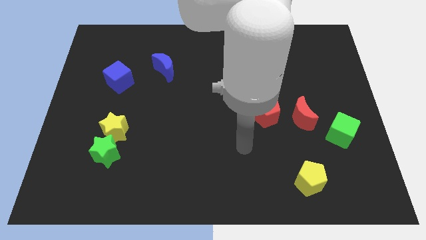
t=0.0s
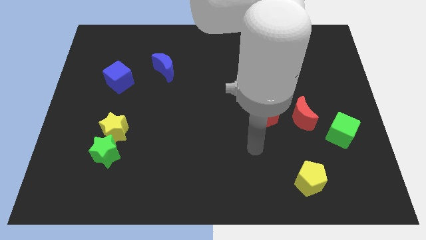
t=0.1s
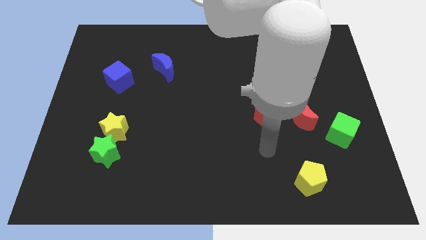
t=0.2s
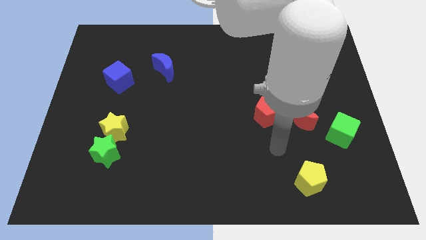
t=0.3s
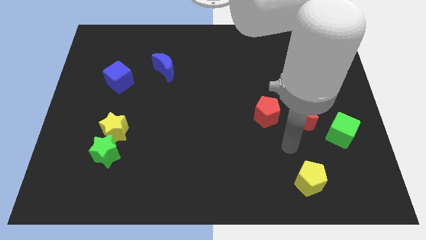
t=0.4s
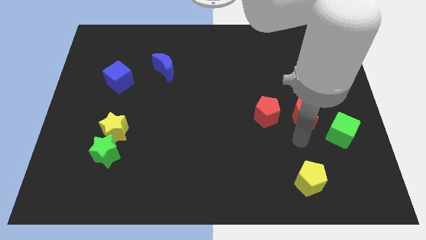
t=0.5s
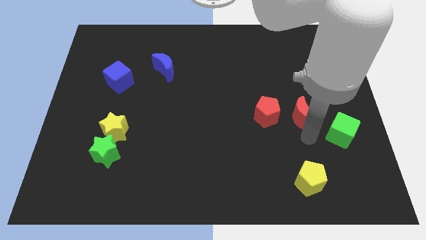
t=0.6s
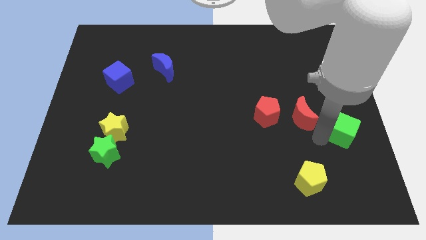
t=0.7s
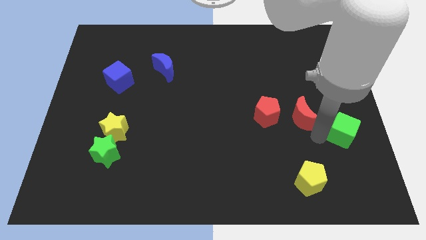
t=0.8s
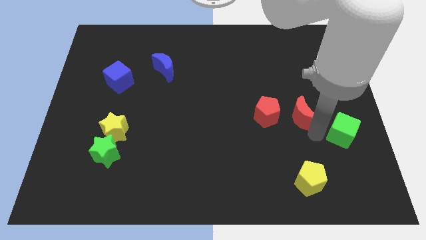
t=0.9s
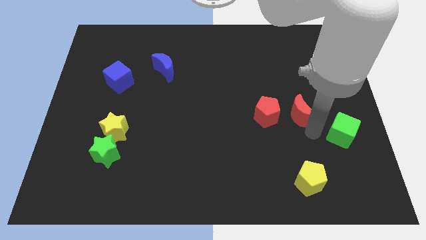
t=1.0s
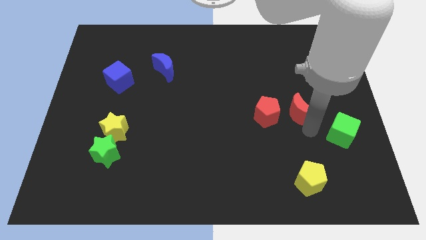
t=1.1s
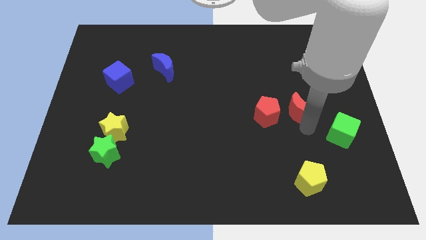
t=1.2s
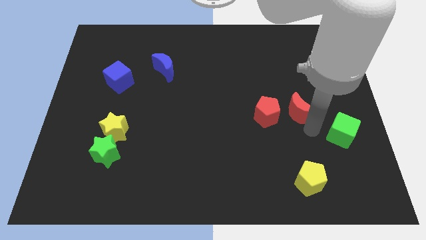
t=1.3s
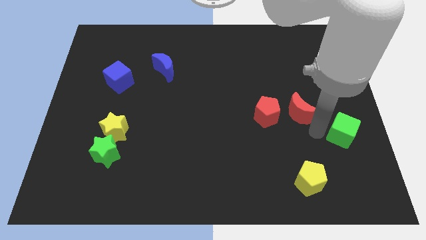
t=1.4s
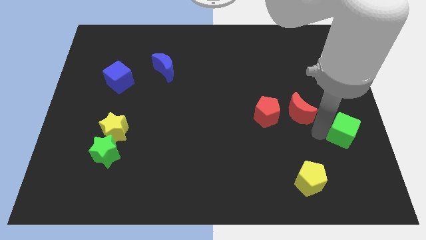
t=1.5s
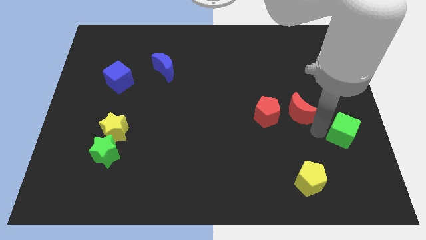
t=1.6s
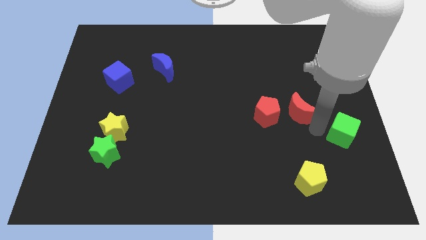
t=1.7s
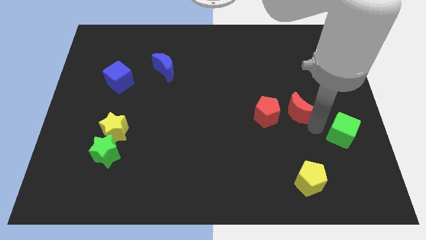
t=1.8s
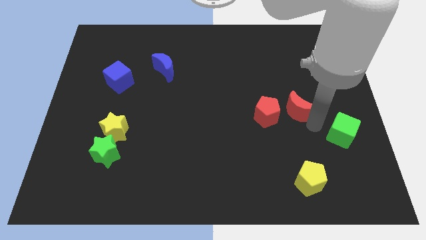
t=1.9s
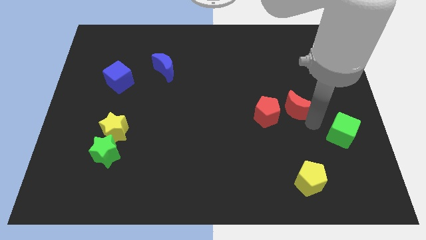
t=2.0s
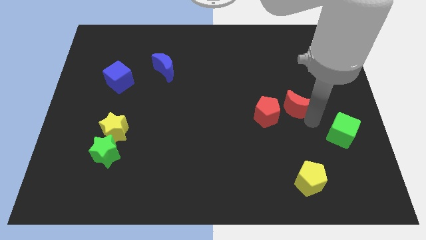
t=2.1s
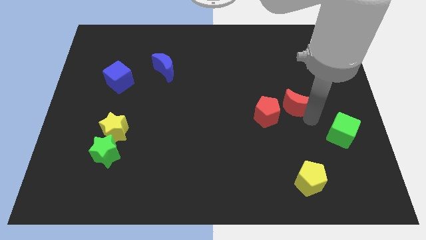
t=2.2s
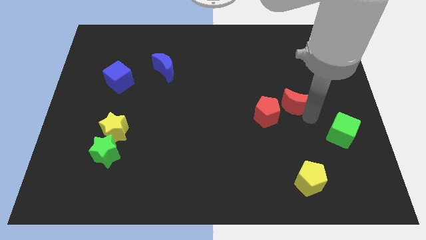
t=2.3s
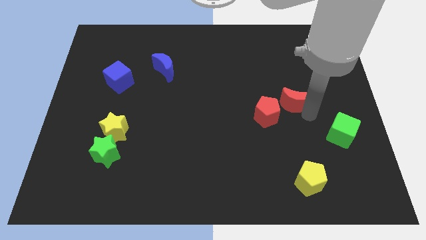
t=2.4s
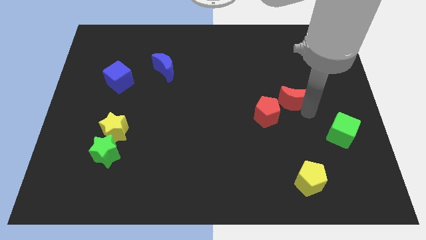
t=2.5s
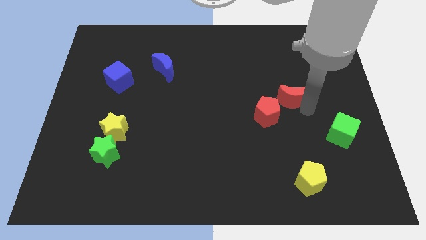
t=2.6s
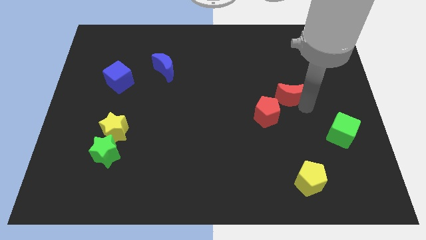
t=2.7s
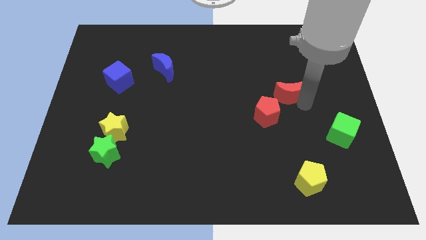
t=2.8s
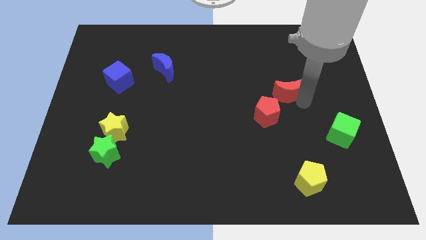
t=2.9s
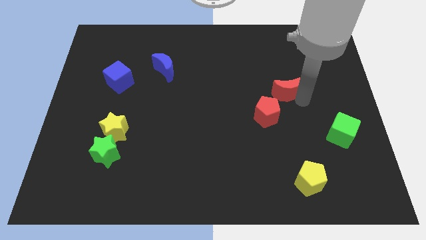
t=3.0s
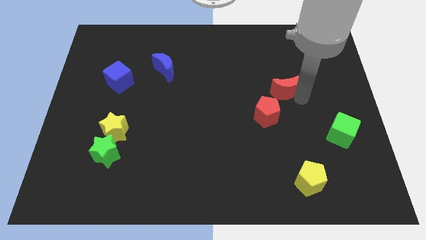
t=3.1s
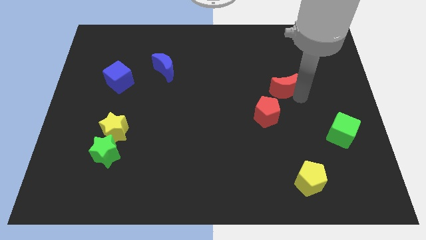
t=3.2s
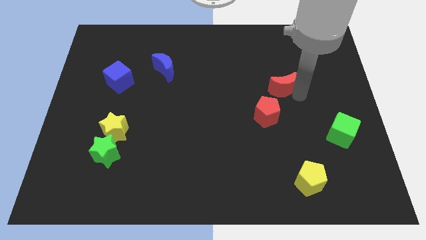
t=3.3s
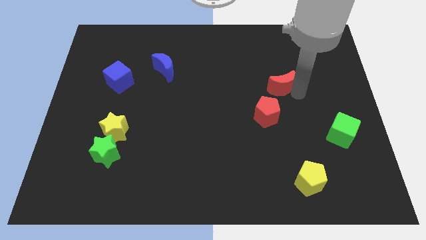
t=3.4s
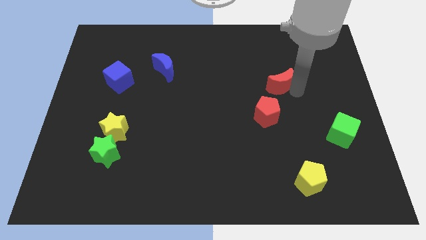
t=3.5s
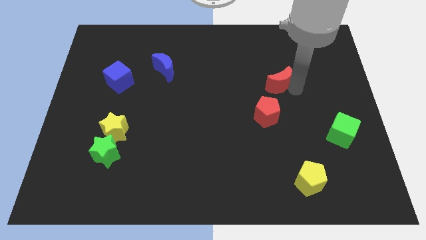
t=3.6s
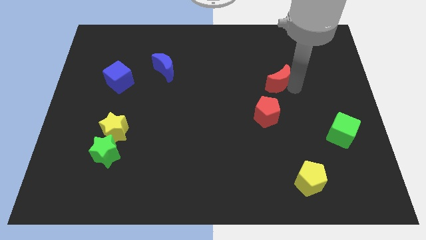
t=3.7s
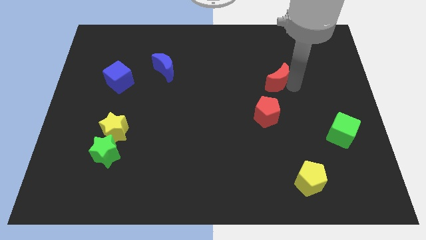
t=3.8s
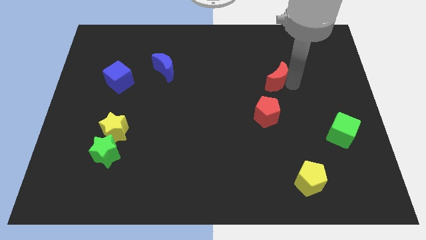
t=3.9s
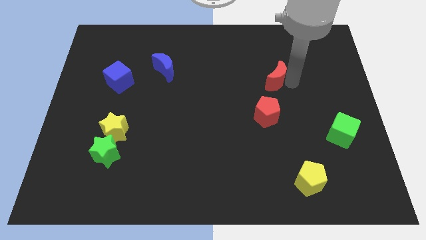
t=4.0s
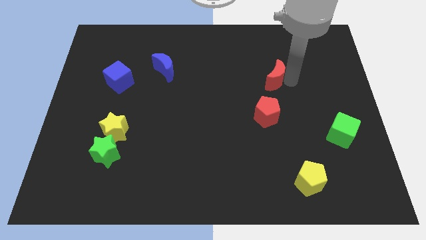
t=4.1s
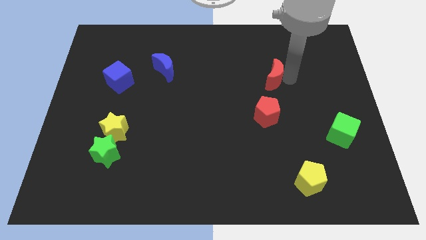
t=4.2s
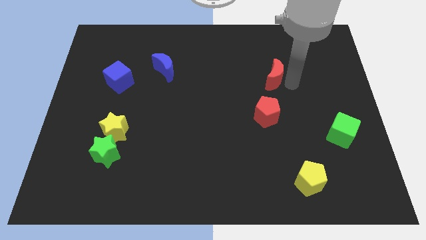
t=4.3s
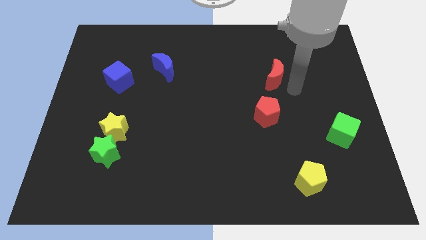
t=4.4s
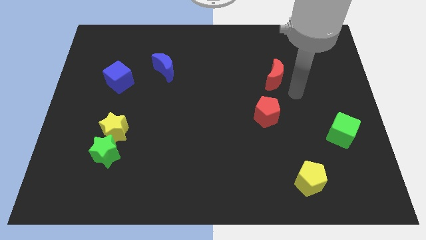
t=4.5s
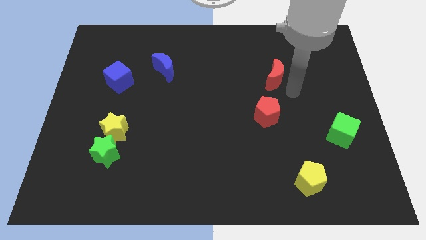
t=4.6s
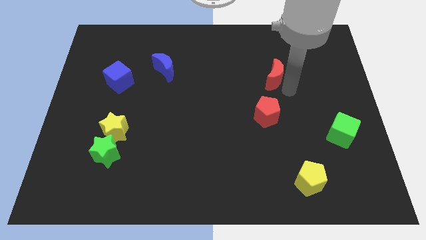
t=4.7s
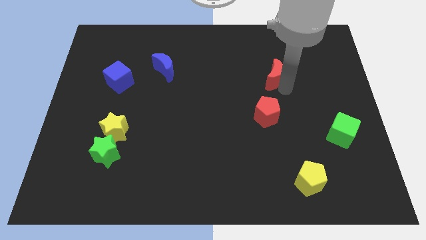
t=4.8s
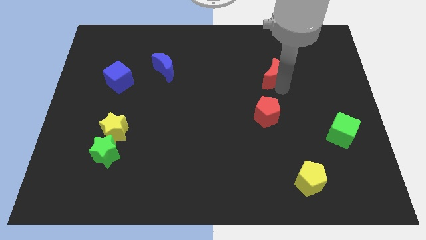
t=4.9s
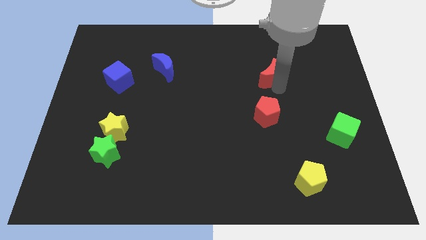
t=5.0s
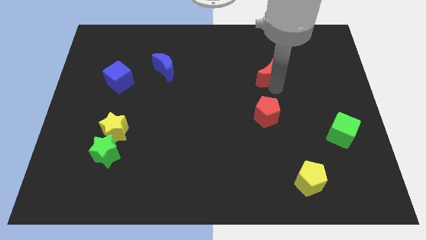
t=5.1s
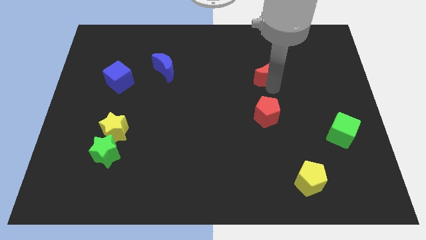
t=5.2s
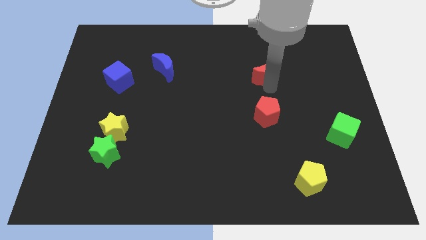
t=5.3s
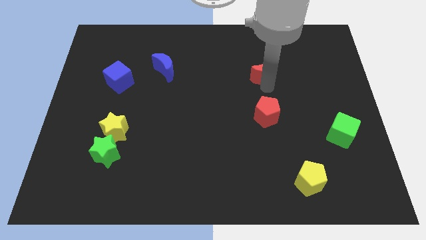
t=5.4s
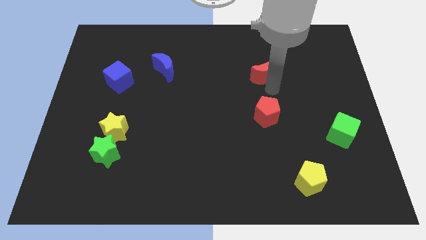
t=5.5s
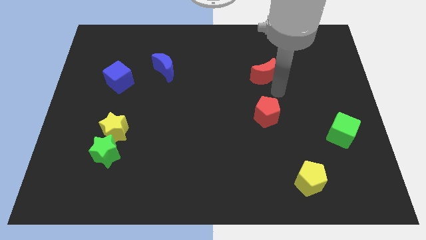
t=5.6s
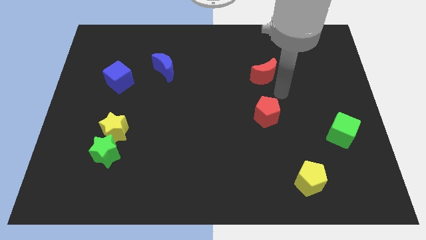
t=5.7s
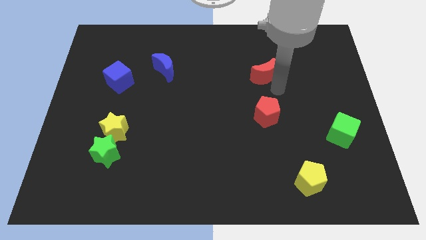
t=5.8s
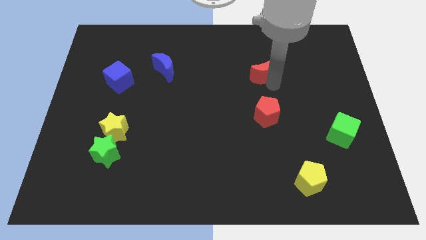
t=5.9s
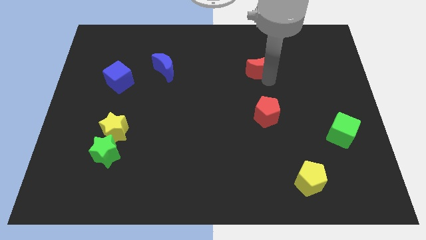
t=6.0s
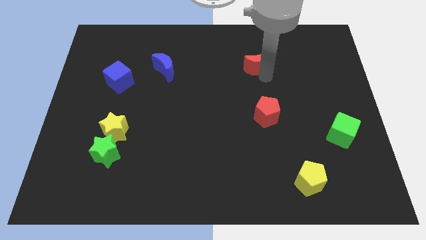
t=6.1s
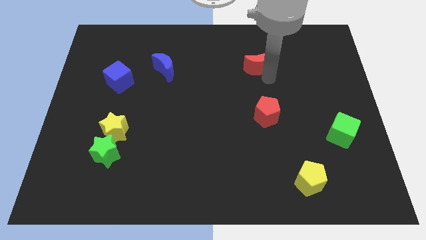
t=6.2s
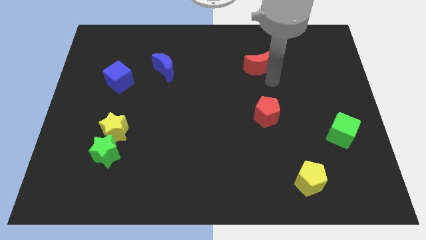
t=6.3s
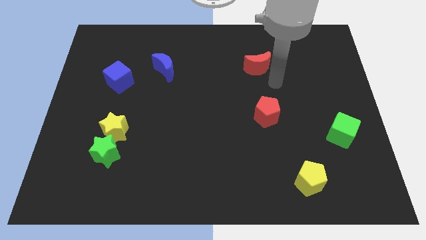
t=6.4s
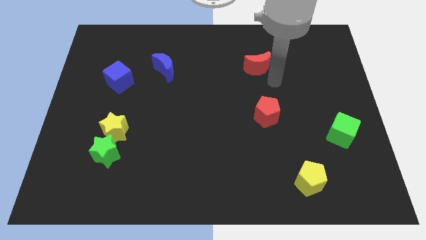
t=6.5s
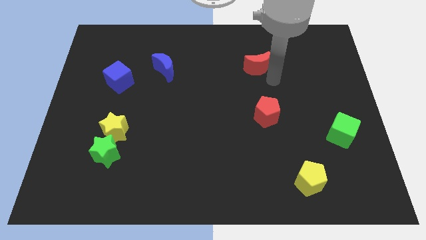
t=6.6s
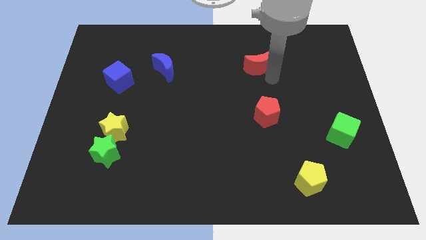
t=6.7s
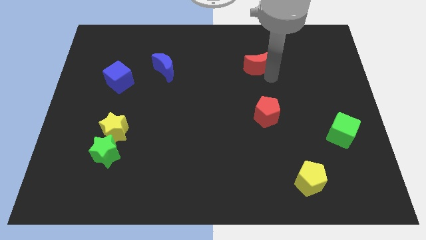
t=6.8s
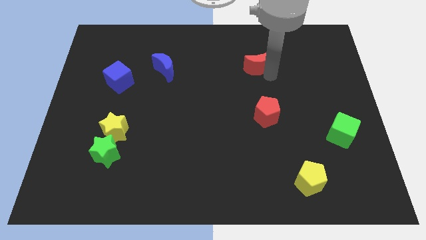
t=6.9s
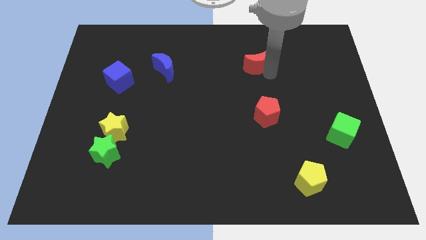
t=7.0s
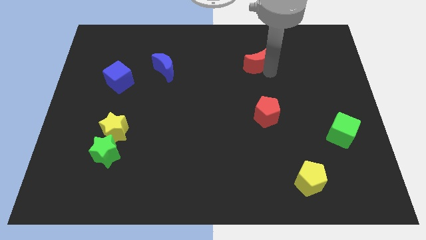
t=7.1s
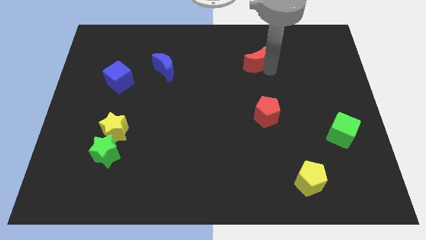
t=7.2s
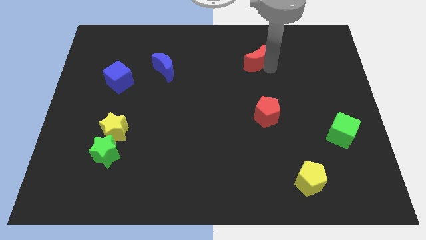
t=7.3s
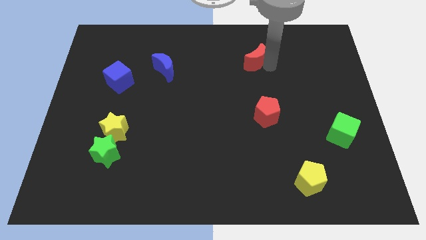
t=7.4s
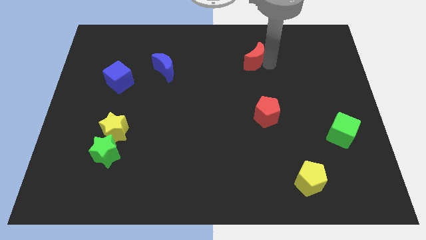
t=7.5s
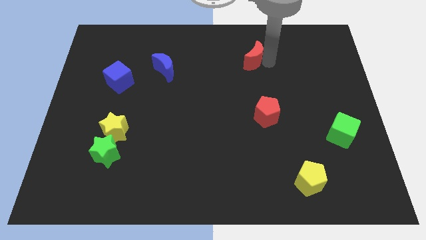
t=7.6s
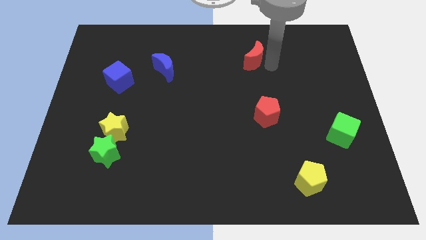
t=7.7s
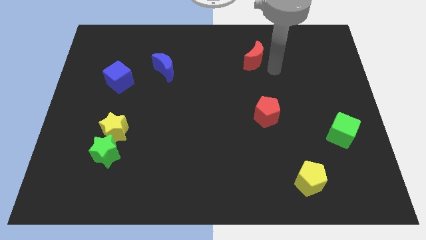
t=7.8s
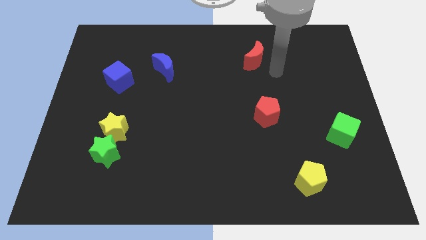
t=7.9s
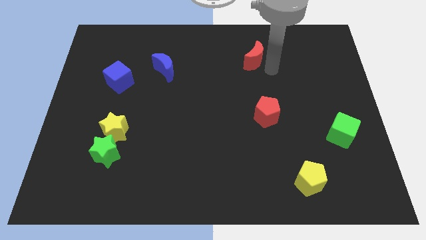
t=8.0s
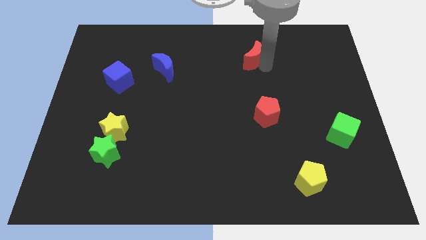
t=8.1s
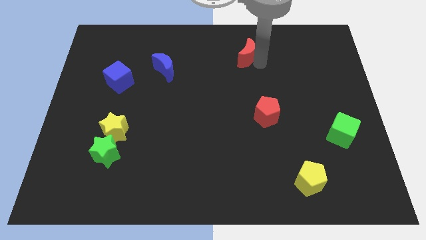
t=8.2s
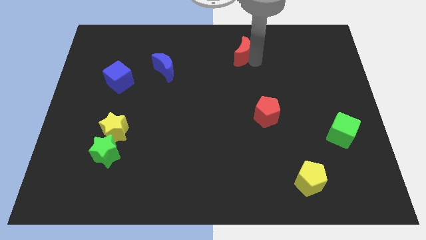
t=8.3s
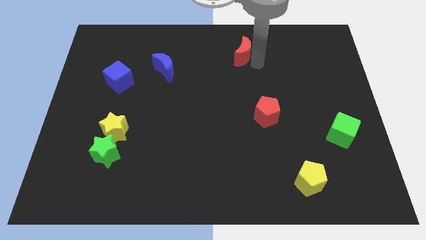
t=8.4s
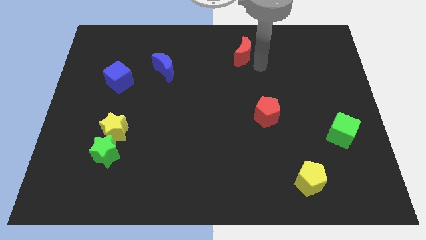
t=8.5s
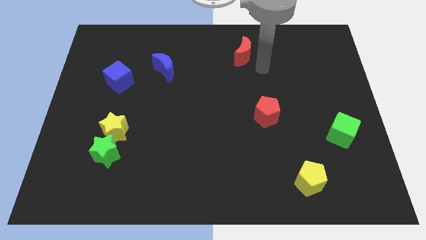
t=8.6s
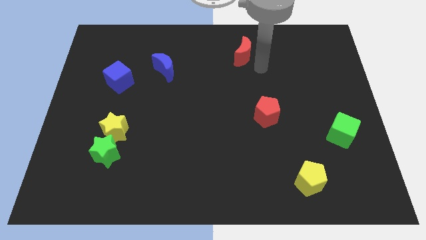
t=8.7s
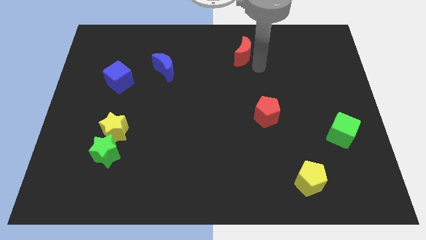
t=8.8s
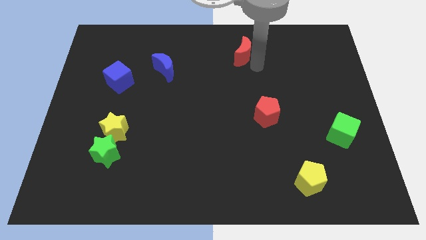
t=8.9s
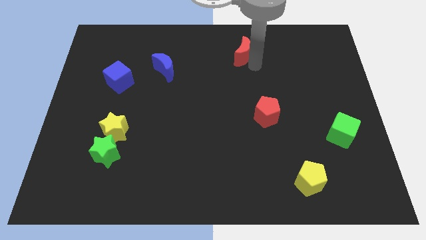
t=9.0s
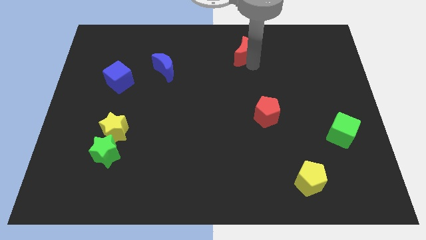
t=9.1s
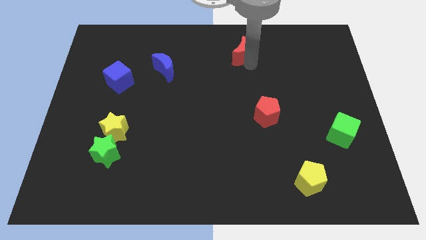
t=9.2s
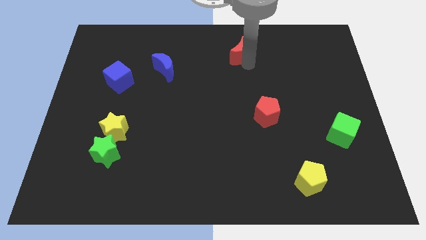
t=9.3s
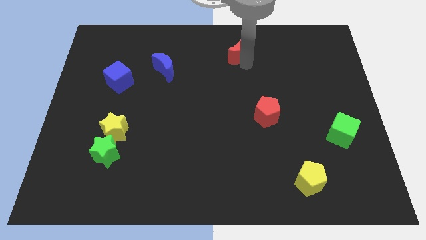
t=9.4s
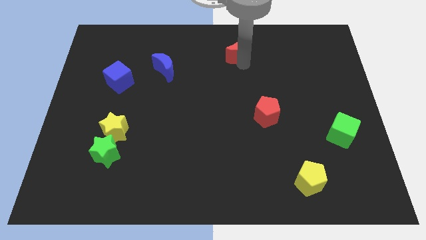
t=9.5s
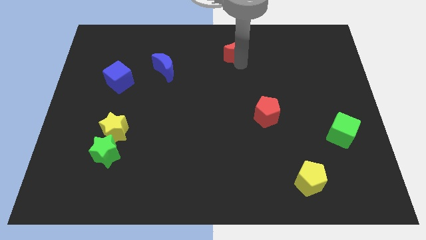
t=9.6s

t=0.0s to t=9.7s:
slide the red moon to the top side
